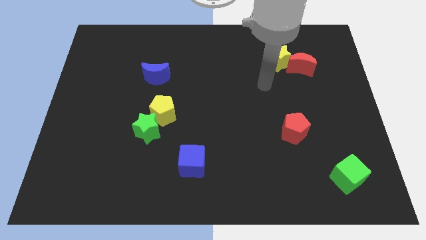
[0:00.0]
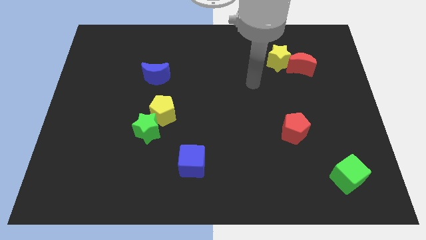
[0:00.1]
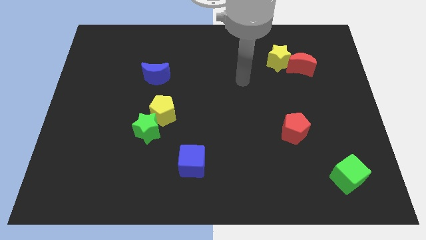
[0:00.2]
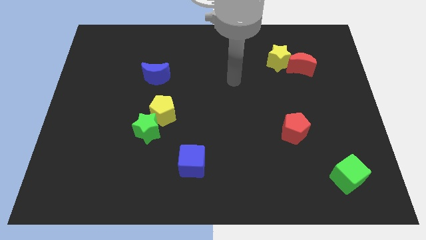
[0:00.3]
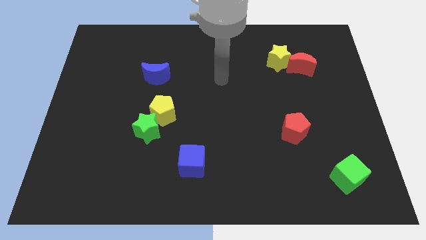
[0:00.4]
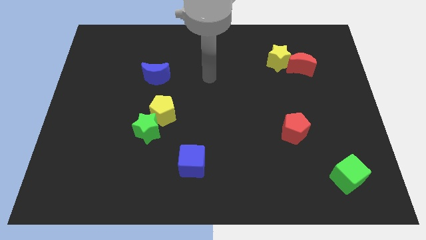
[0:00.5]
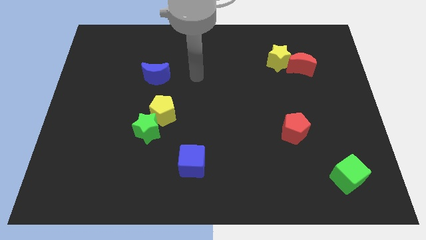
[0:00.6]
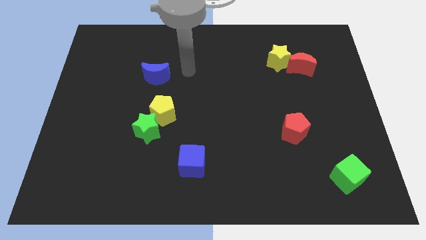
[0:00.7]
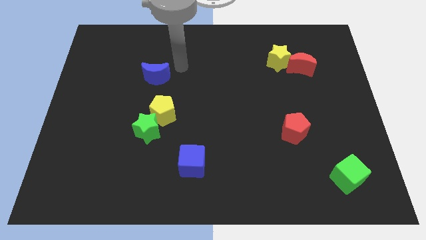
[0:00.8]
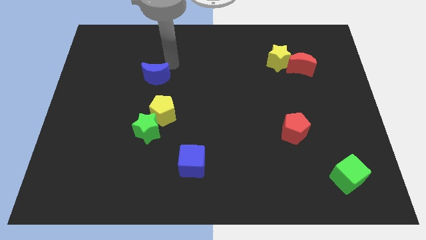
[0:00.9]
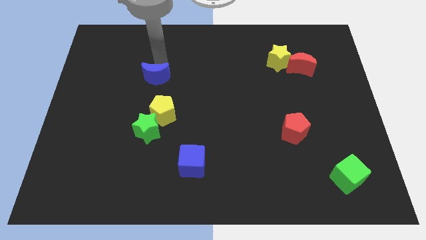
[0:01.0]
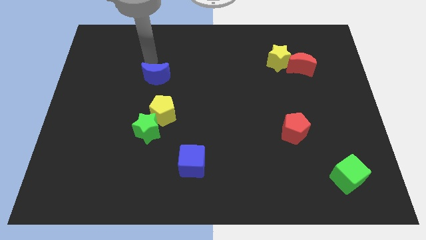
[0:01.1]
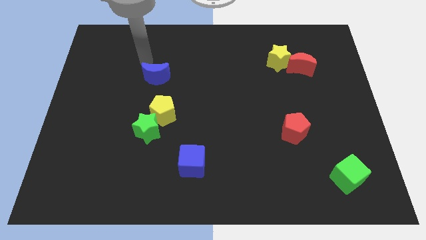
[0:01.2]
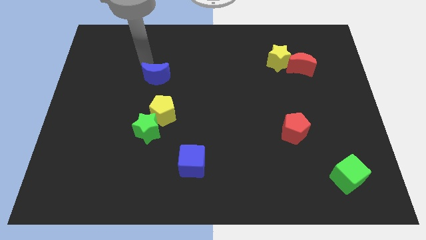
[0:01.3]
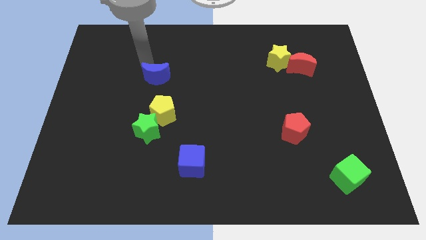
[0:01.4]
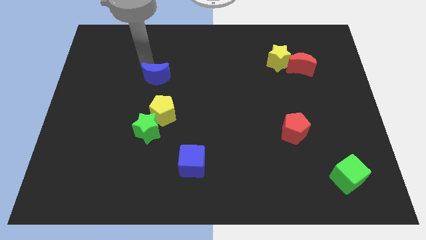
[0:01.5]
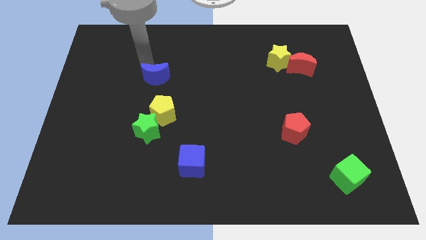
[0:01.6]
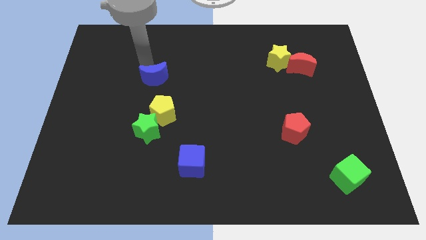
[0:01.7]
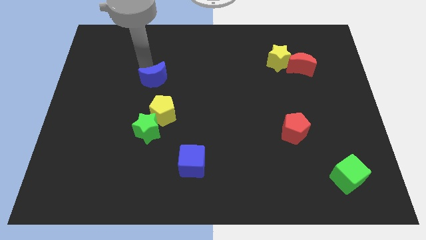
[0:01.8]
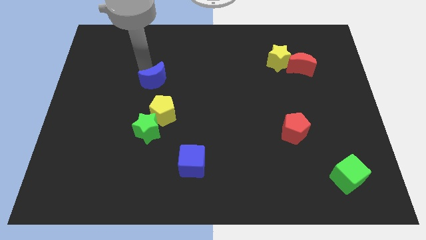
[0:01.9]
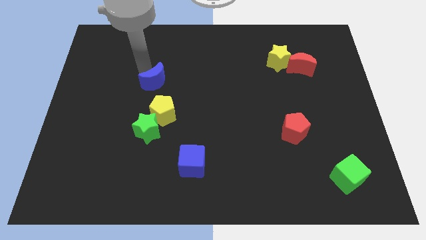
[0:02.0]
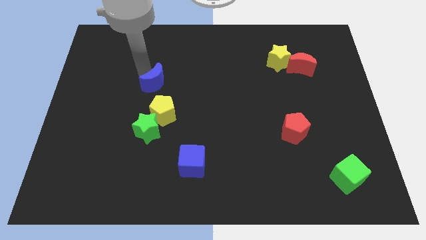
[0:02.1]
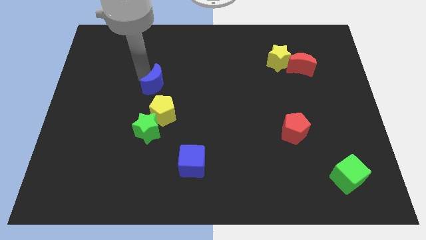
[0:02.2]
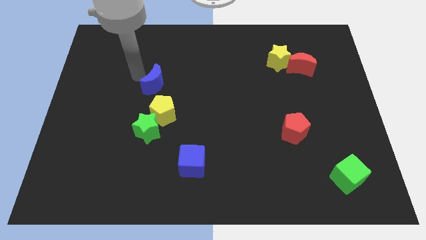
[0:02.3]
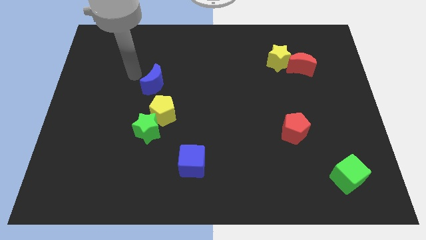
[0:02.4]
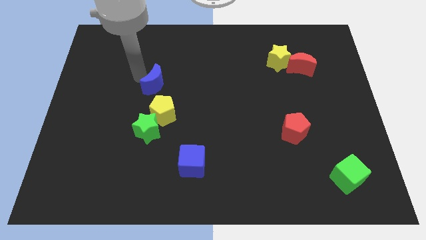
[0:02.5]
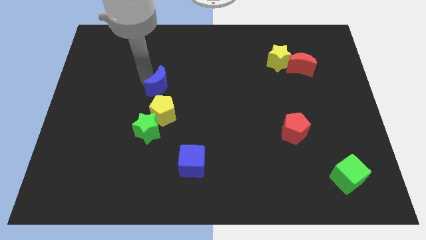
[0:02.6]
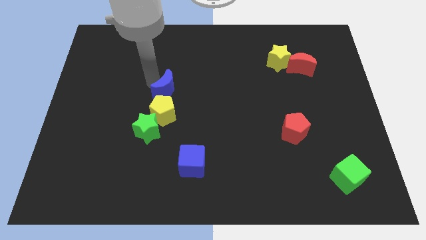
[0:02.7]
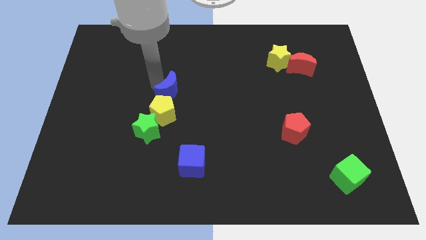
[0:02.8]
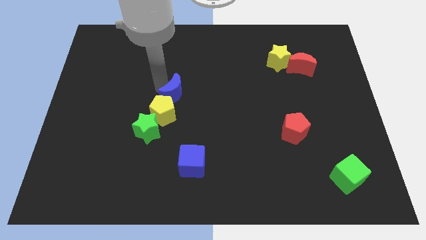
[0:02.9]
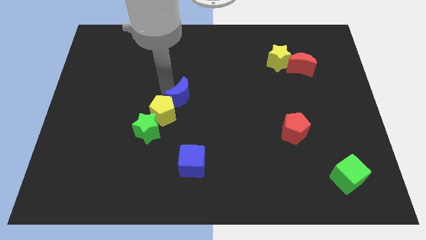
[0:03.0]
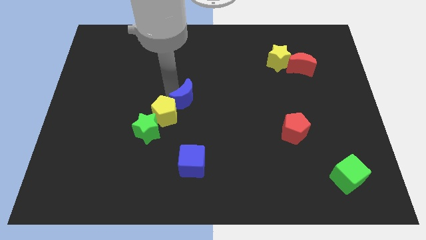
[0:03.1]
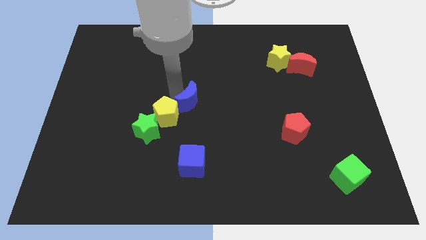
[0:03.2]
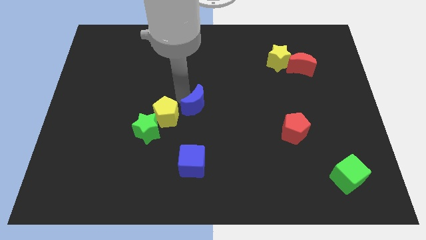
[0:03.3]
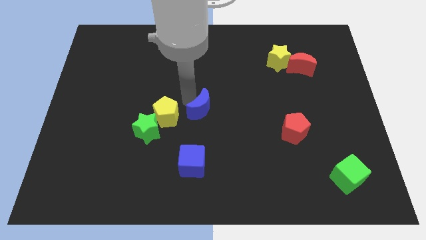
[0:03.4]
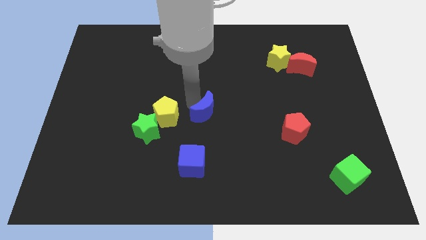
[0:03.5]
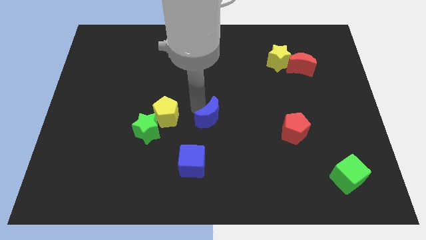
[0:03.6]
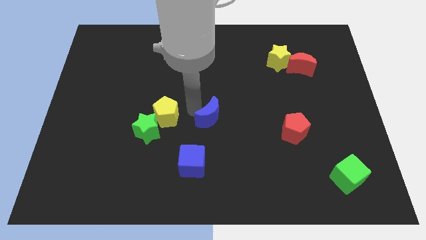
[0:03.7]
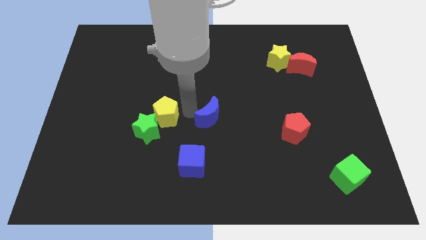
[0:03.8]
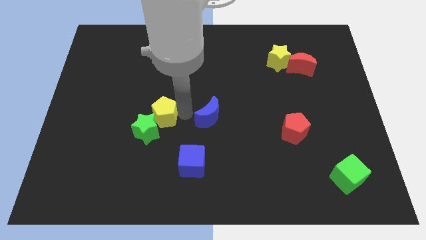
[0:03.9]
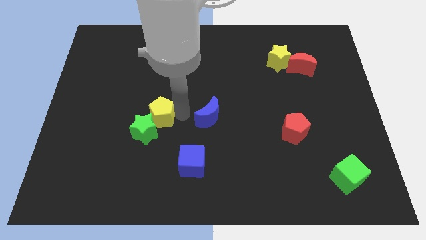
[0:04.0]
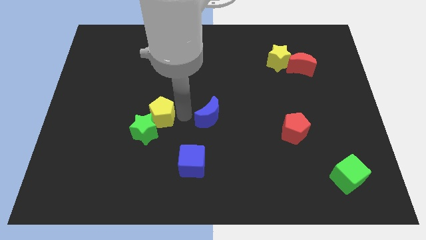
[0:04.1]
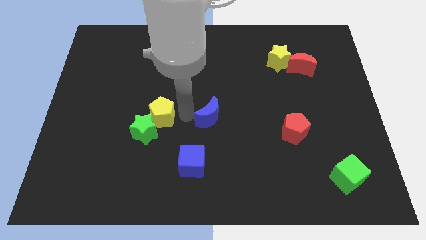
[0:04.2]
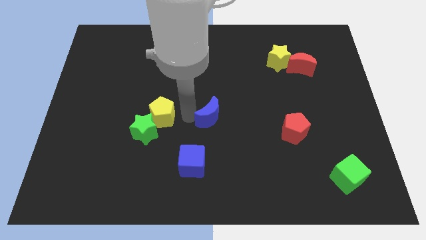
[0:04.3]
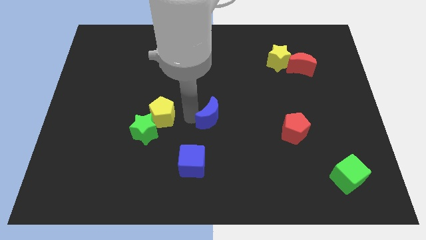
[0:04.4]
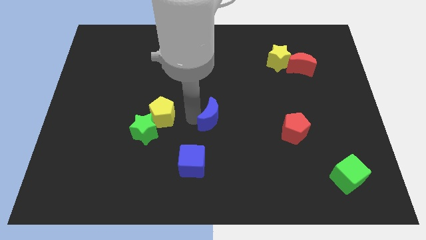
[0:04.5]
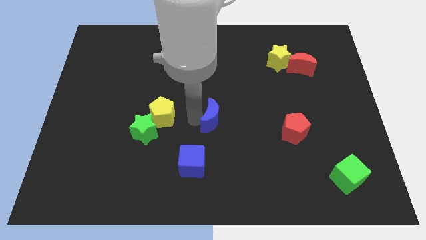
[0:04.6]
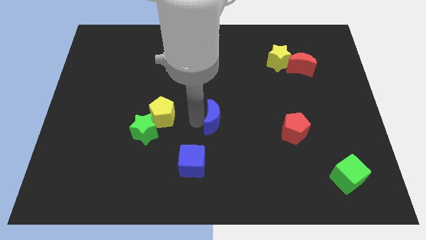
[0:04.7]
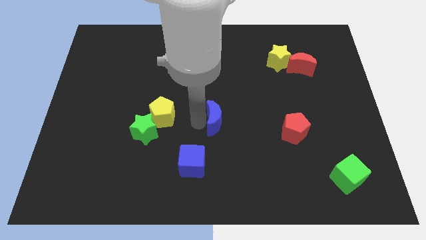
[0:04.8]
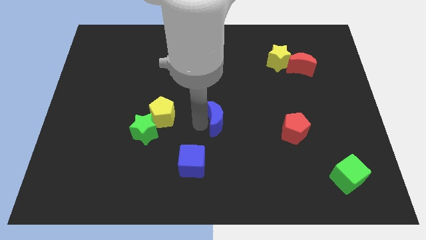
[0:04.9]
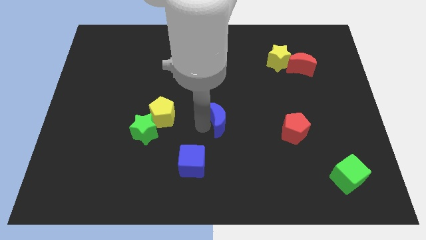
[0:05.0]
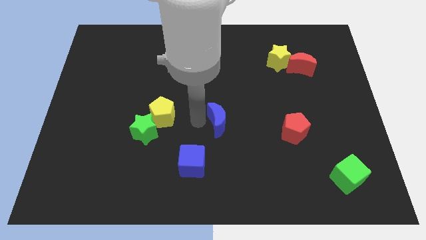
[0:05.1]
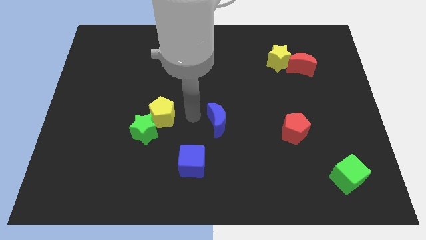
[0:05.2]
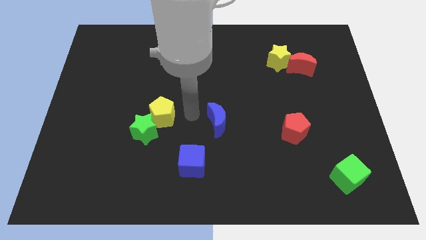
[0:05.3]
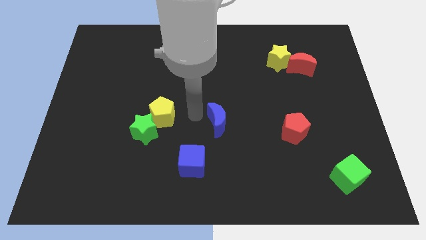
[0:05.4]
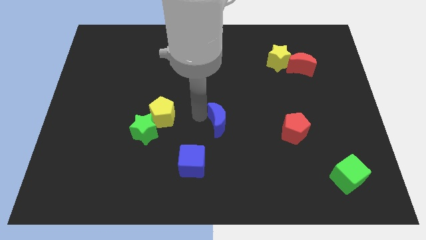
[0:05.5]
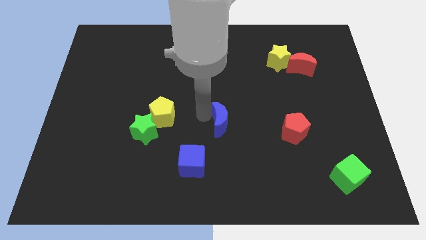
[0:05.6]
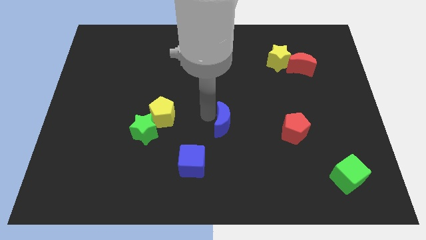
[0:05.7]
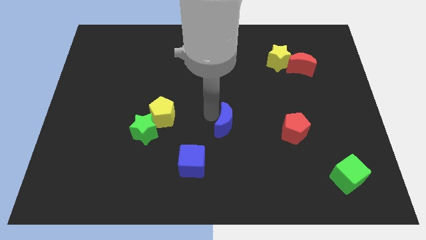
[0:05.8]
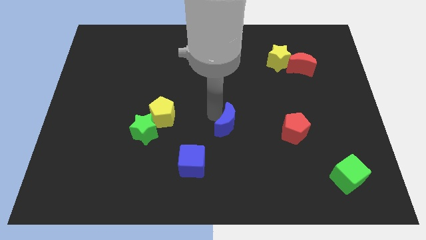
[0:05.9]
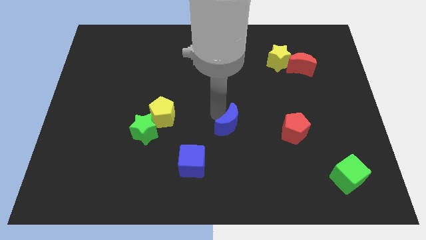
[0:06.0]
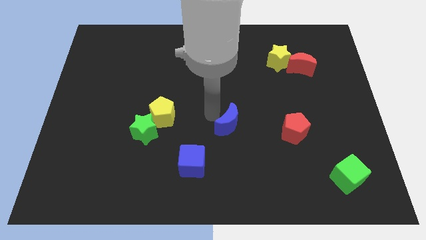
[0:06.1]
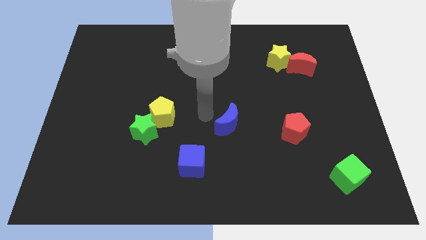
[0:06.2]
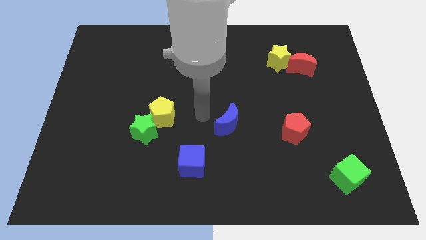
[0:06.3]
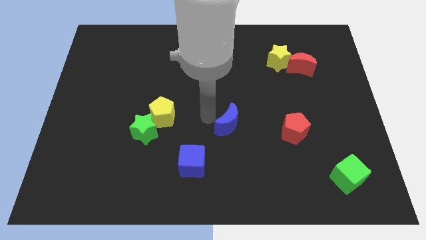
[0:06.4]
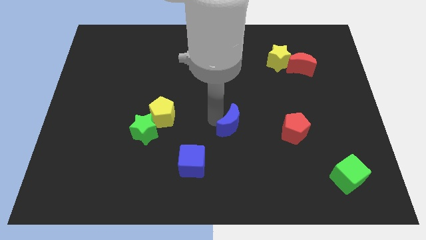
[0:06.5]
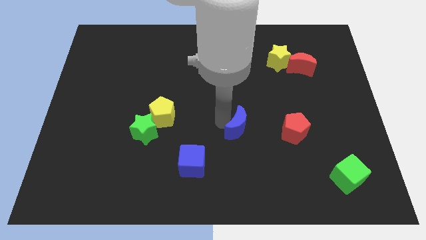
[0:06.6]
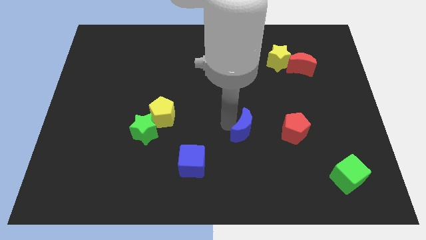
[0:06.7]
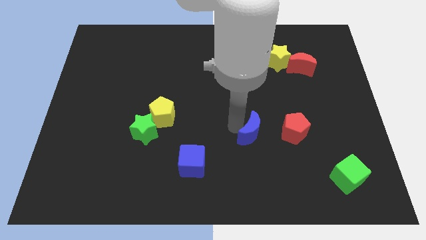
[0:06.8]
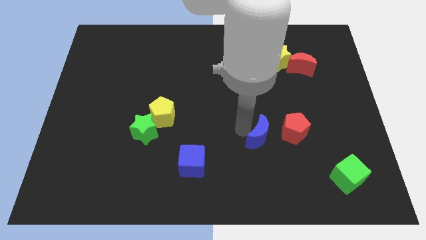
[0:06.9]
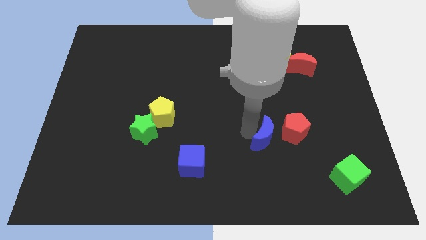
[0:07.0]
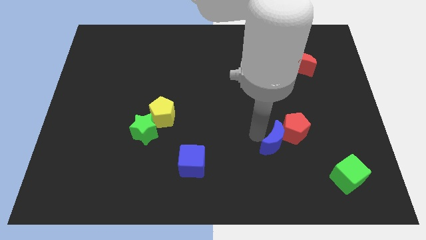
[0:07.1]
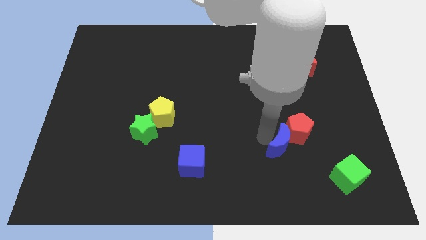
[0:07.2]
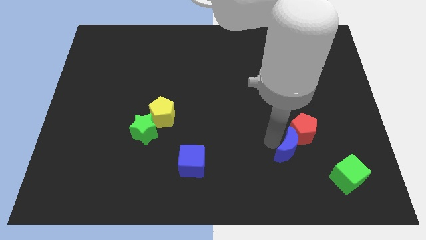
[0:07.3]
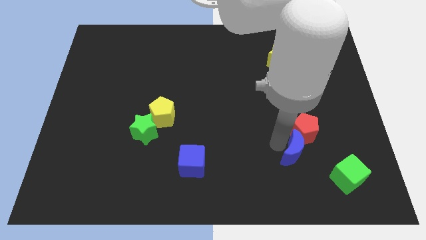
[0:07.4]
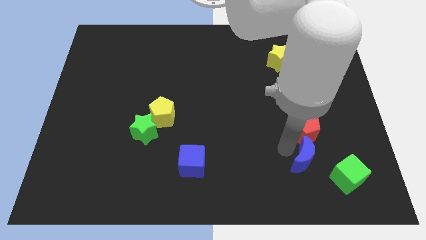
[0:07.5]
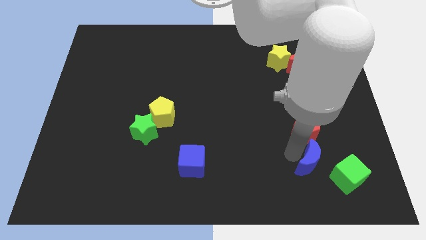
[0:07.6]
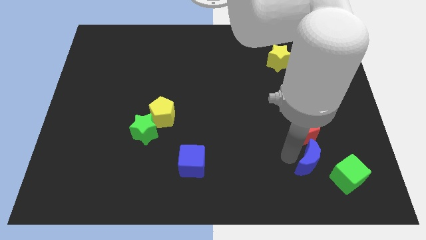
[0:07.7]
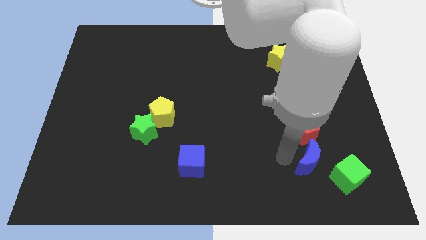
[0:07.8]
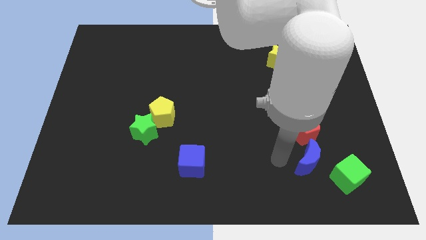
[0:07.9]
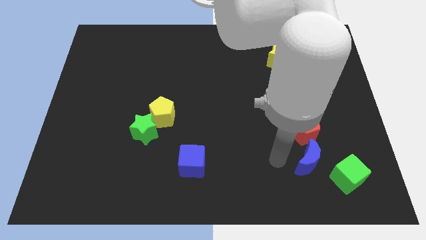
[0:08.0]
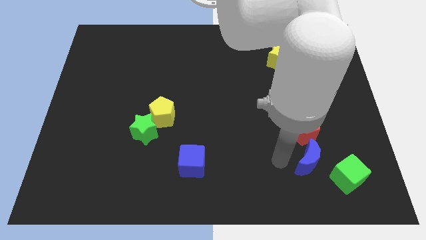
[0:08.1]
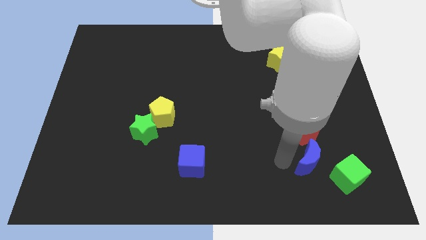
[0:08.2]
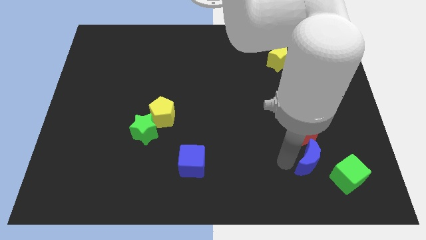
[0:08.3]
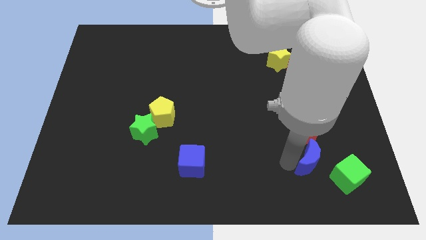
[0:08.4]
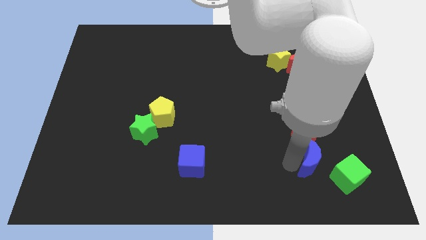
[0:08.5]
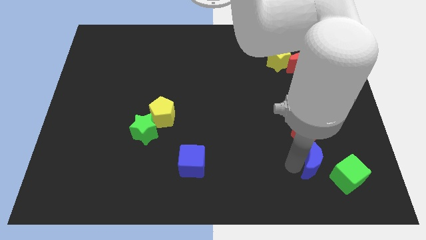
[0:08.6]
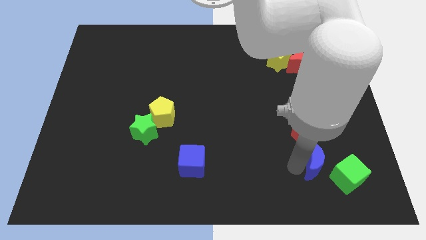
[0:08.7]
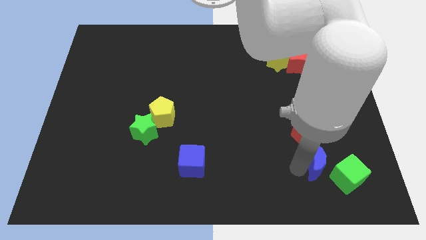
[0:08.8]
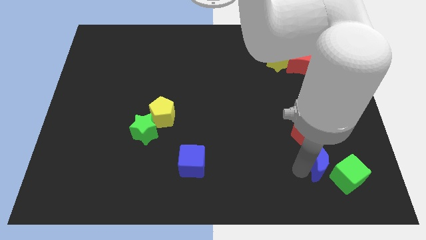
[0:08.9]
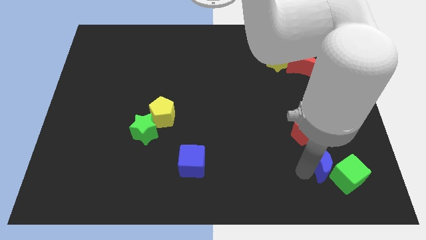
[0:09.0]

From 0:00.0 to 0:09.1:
move the blue moon next to the green cube
